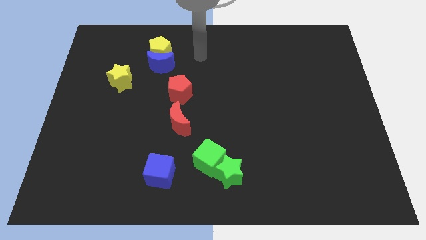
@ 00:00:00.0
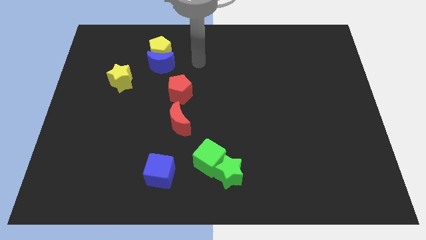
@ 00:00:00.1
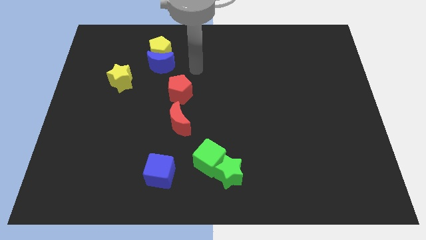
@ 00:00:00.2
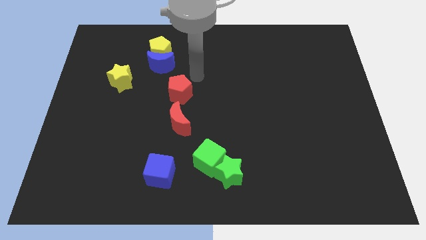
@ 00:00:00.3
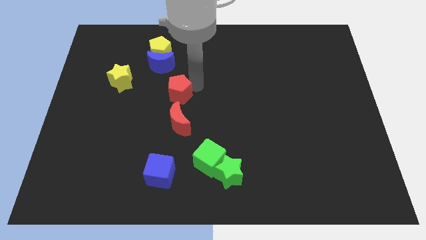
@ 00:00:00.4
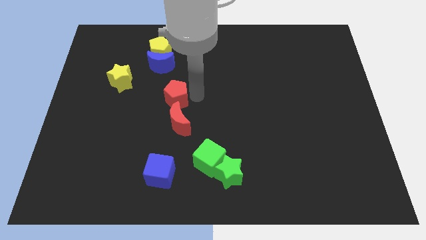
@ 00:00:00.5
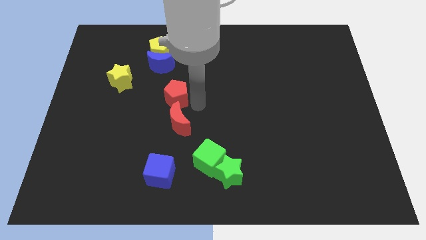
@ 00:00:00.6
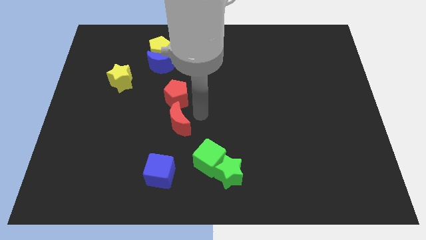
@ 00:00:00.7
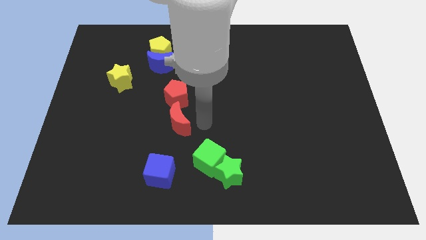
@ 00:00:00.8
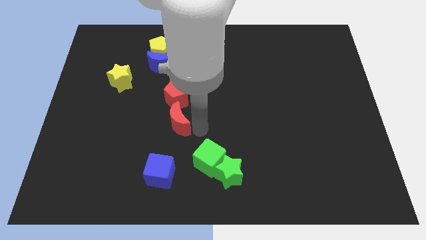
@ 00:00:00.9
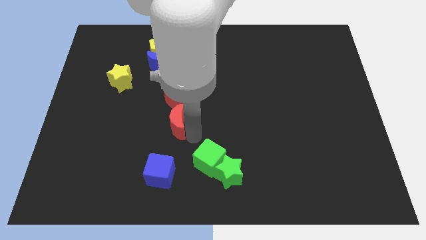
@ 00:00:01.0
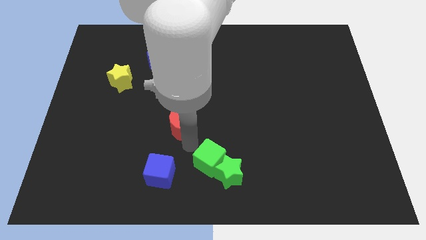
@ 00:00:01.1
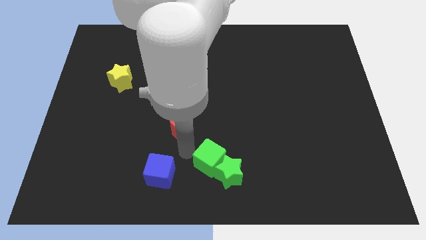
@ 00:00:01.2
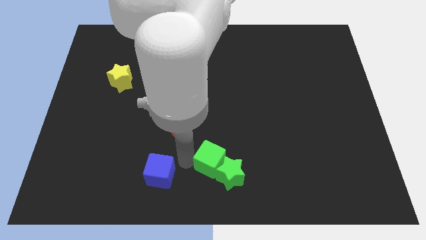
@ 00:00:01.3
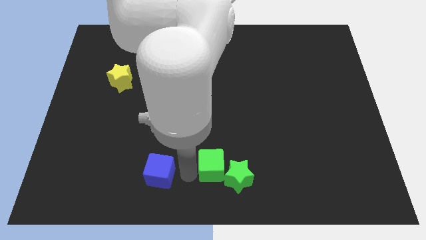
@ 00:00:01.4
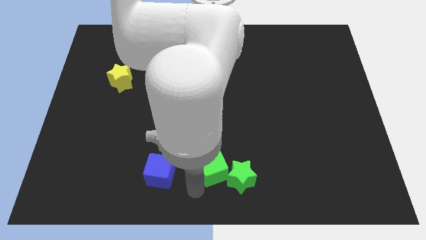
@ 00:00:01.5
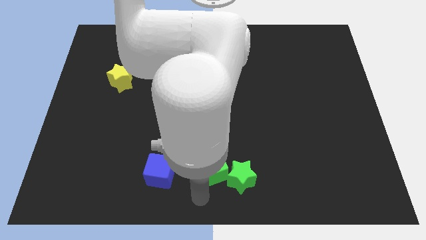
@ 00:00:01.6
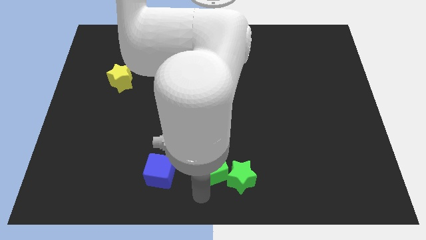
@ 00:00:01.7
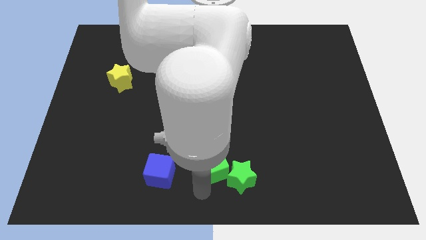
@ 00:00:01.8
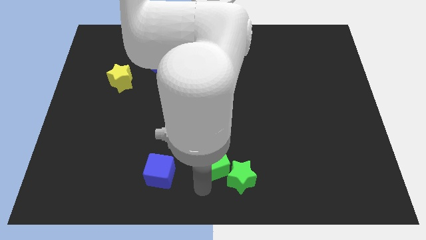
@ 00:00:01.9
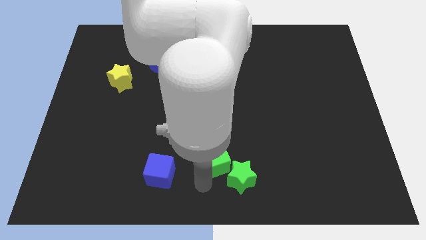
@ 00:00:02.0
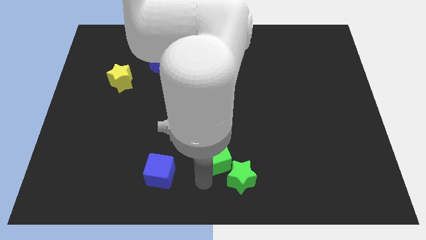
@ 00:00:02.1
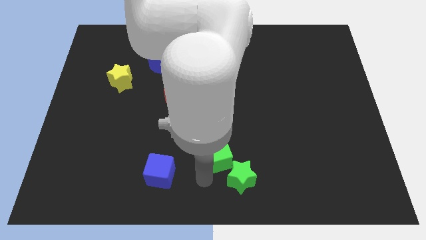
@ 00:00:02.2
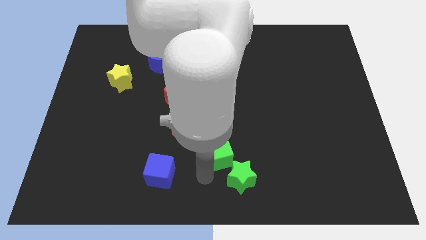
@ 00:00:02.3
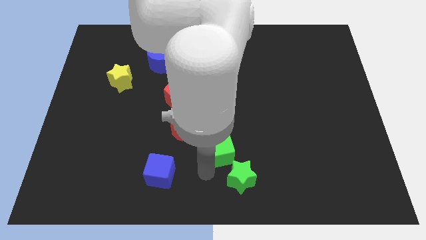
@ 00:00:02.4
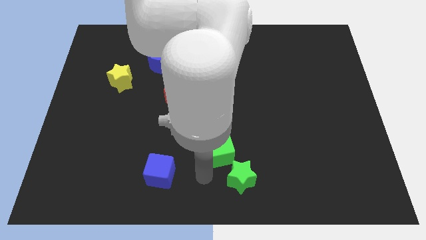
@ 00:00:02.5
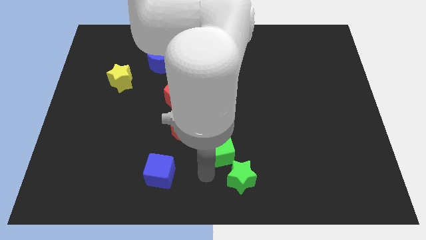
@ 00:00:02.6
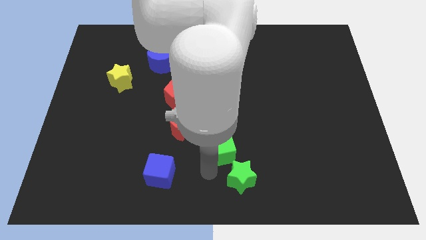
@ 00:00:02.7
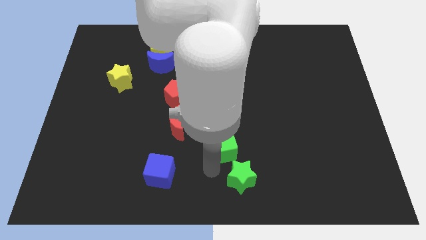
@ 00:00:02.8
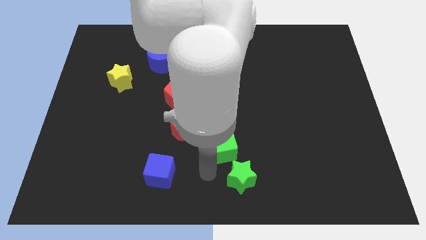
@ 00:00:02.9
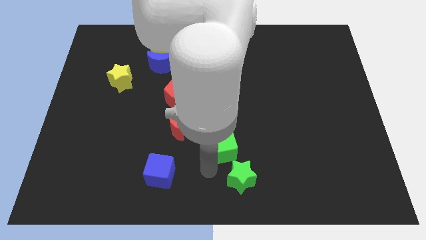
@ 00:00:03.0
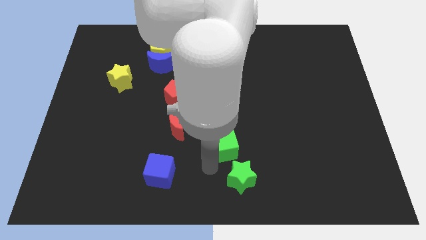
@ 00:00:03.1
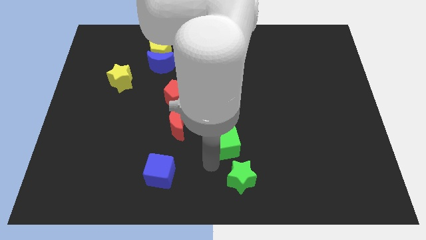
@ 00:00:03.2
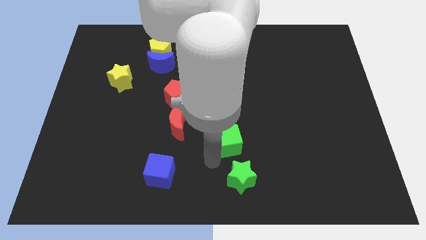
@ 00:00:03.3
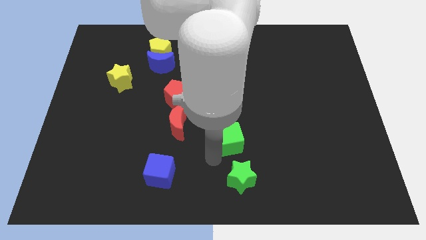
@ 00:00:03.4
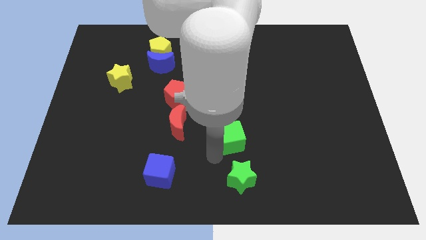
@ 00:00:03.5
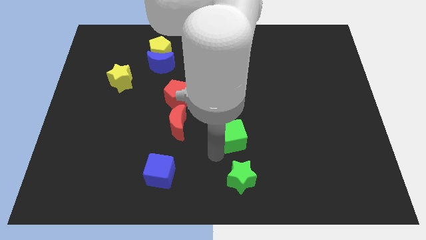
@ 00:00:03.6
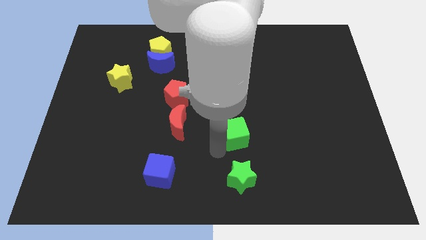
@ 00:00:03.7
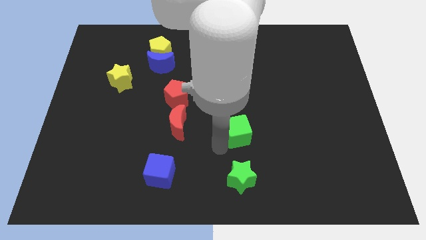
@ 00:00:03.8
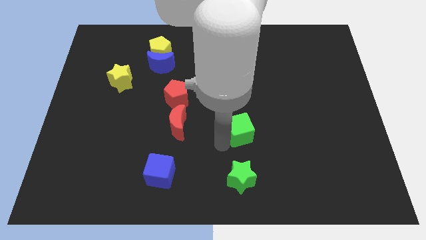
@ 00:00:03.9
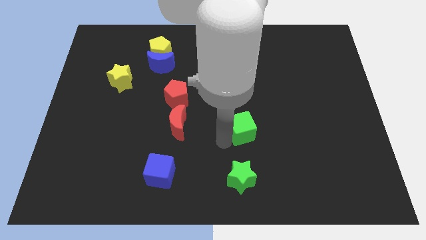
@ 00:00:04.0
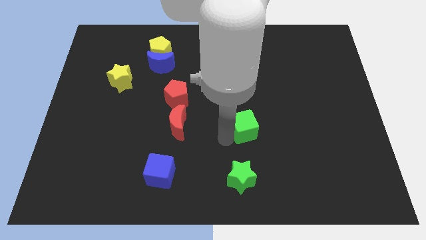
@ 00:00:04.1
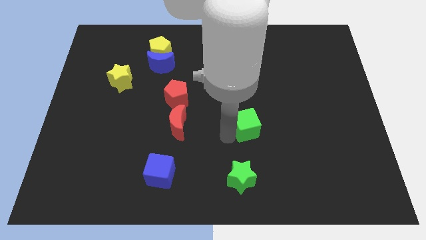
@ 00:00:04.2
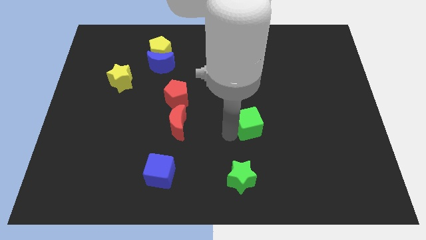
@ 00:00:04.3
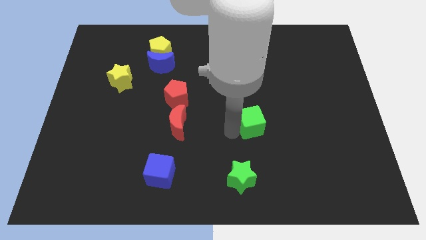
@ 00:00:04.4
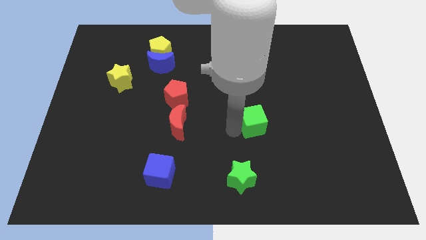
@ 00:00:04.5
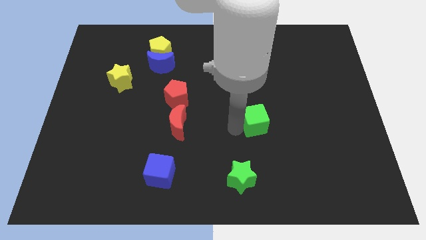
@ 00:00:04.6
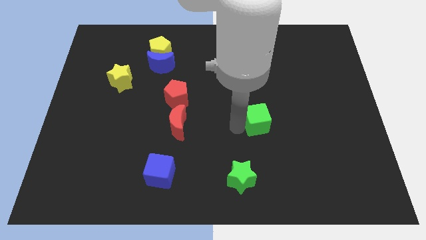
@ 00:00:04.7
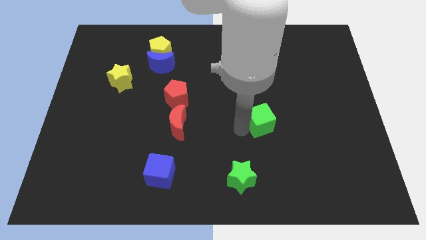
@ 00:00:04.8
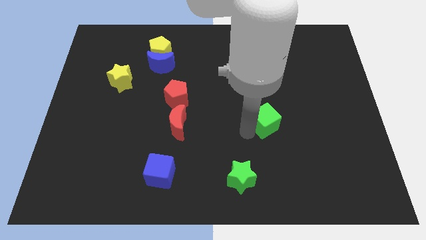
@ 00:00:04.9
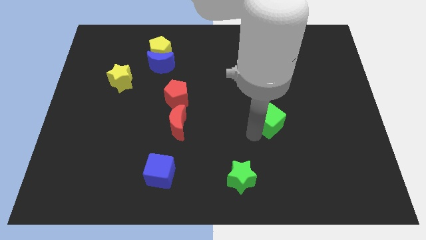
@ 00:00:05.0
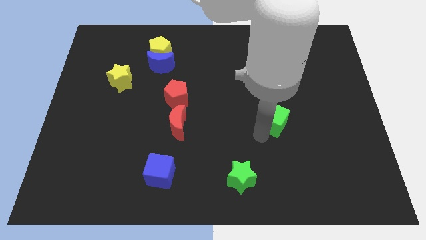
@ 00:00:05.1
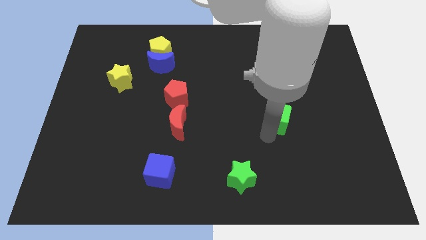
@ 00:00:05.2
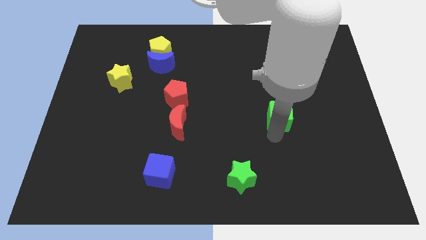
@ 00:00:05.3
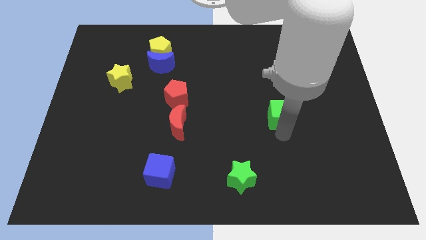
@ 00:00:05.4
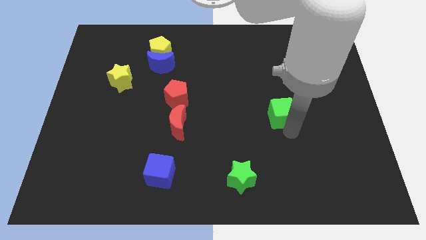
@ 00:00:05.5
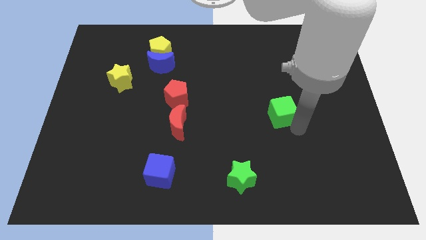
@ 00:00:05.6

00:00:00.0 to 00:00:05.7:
push the green cube diagonally upwards and right

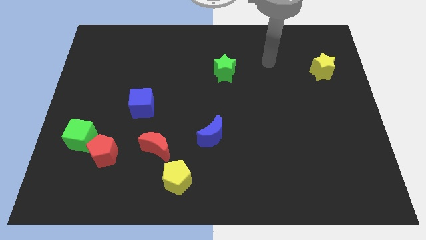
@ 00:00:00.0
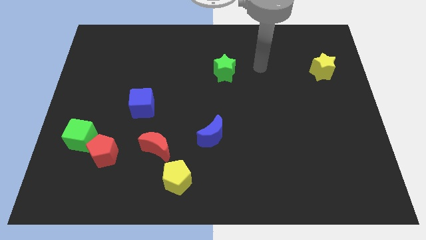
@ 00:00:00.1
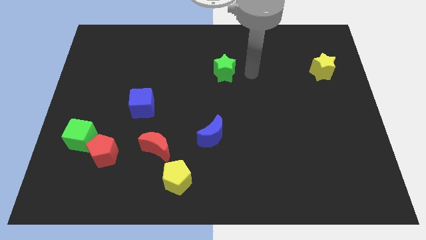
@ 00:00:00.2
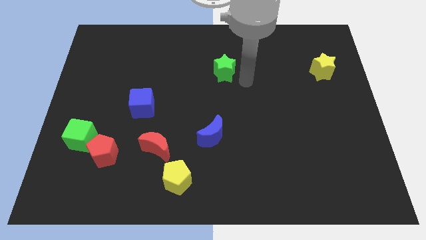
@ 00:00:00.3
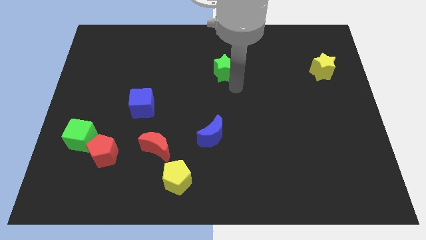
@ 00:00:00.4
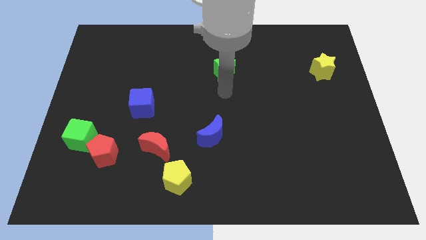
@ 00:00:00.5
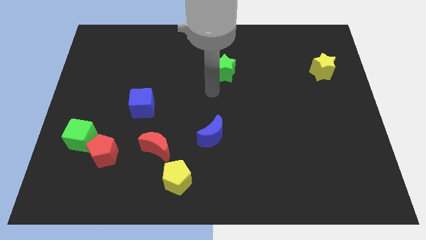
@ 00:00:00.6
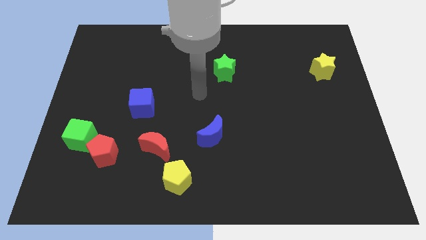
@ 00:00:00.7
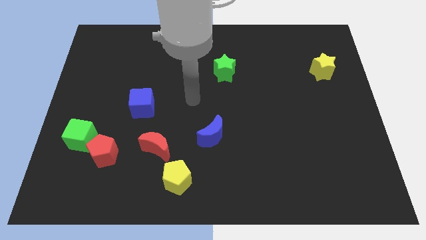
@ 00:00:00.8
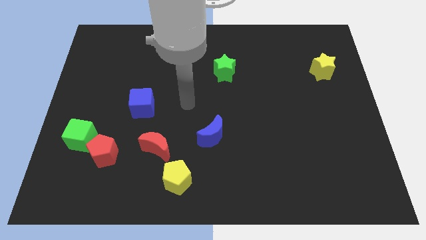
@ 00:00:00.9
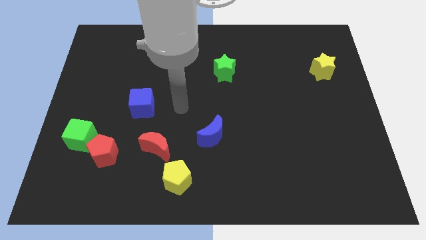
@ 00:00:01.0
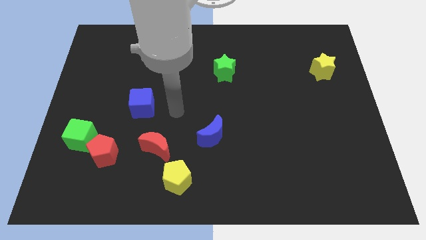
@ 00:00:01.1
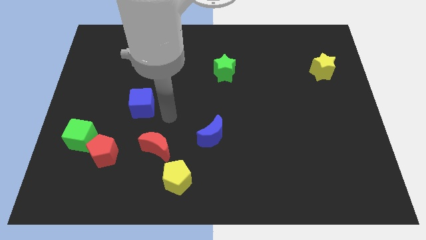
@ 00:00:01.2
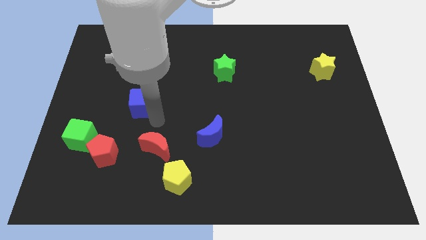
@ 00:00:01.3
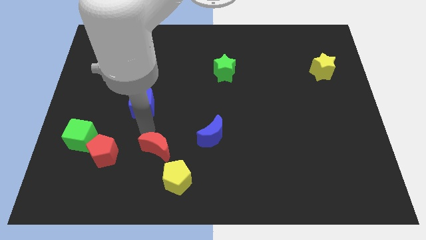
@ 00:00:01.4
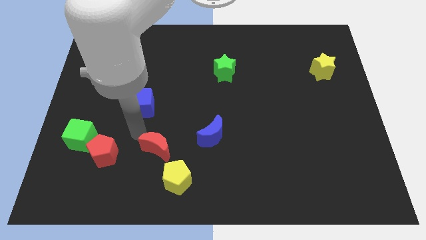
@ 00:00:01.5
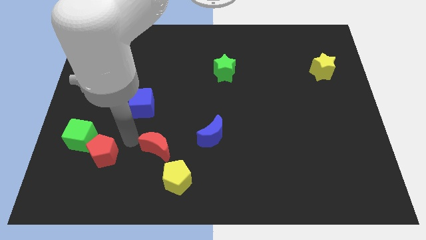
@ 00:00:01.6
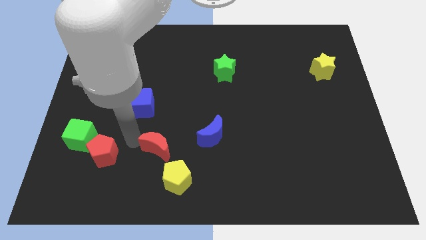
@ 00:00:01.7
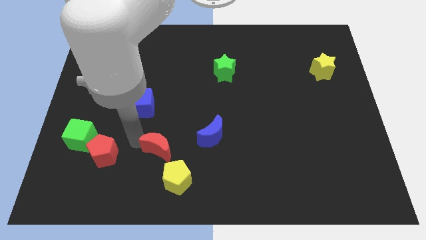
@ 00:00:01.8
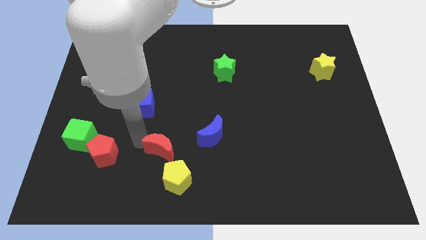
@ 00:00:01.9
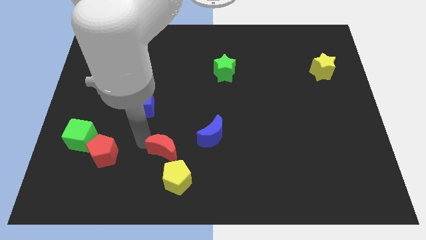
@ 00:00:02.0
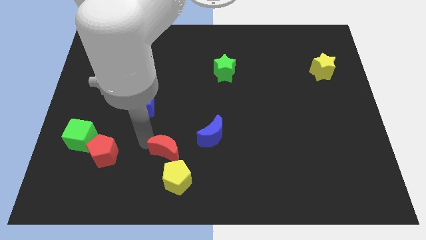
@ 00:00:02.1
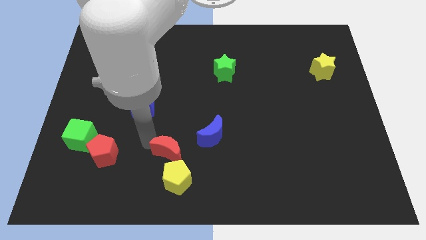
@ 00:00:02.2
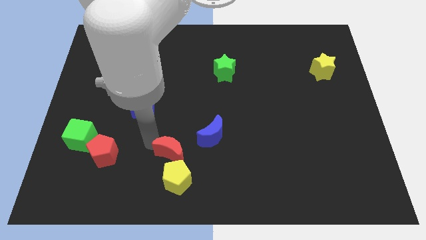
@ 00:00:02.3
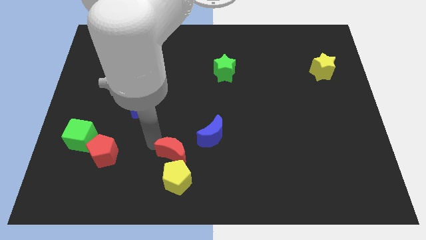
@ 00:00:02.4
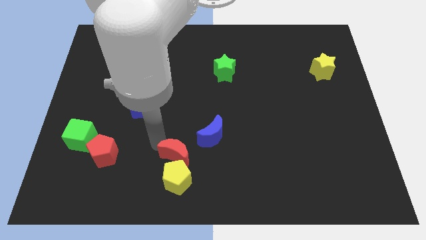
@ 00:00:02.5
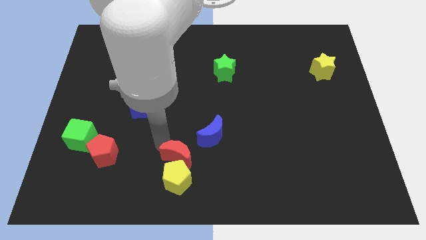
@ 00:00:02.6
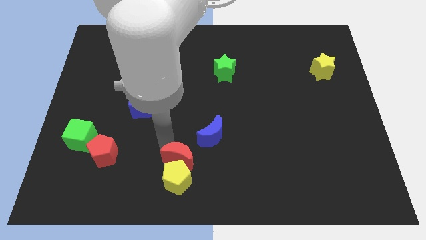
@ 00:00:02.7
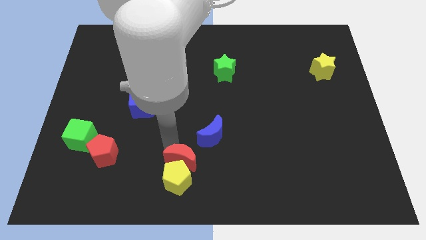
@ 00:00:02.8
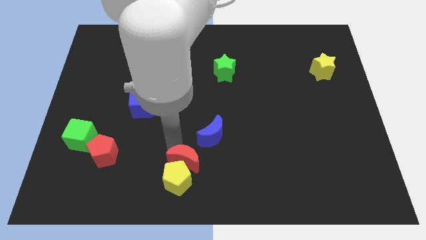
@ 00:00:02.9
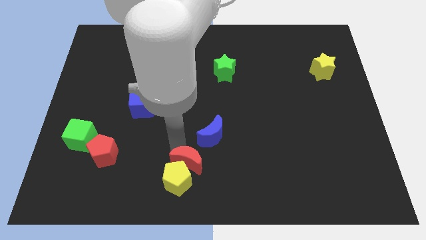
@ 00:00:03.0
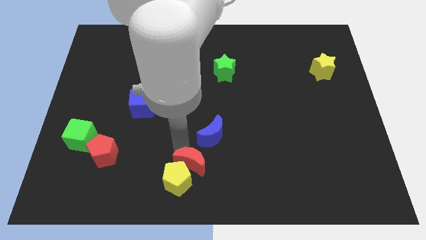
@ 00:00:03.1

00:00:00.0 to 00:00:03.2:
push the red moon to the right somewhat
